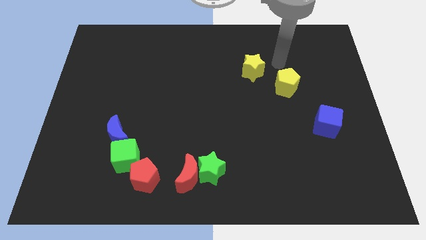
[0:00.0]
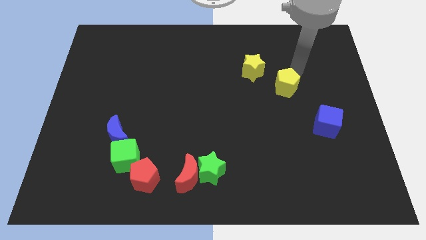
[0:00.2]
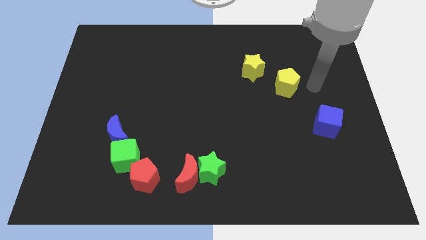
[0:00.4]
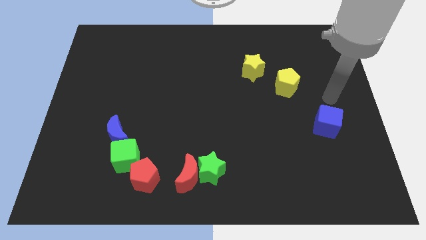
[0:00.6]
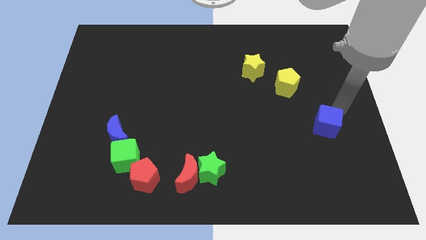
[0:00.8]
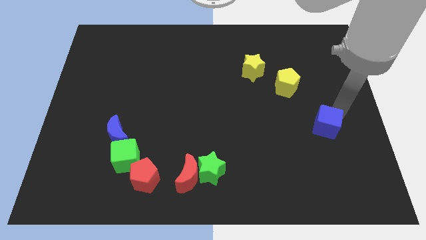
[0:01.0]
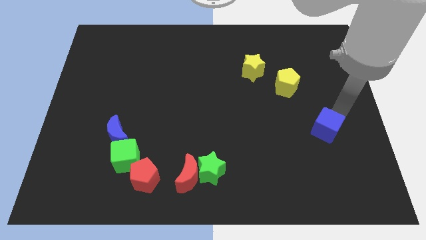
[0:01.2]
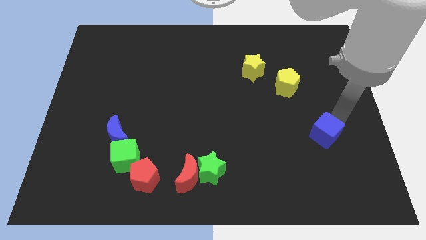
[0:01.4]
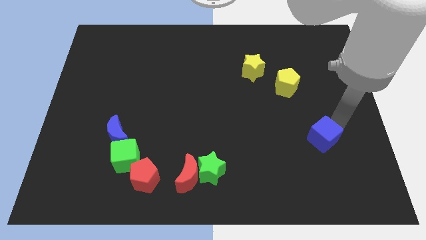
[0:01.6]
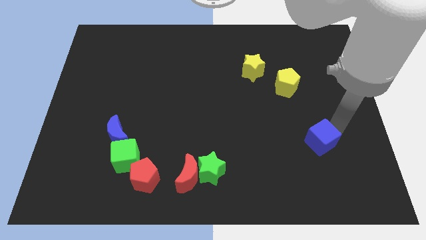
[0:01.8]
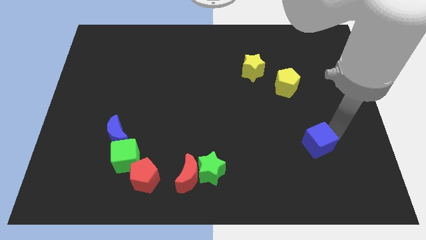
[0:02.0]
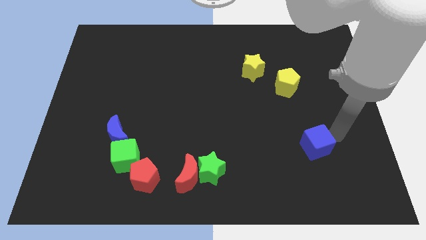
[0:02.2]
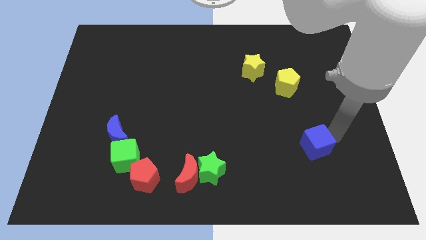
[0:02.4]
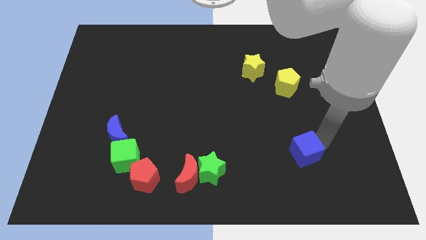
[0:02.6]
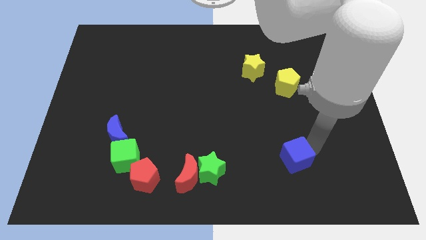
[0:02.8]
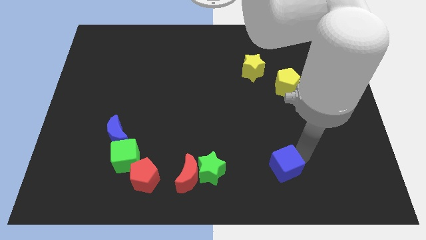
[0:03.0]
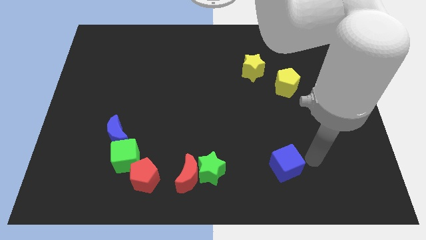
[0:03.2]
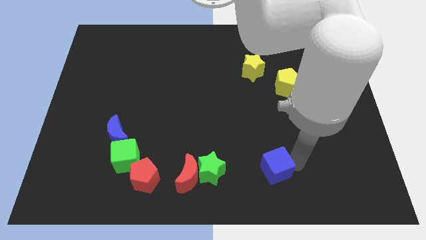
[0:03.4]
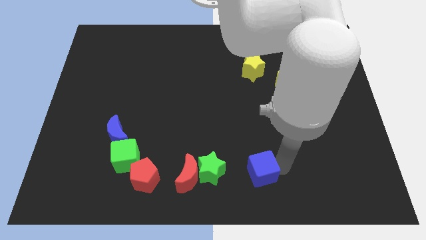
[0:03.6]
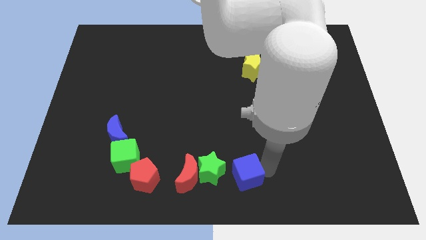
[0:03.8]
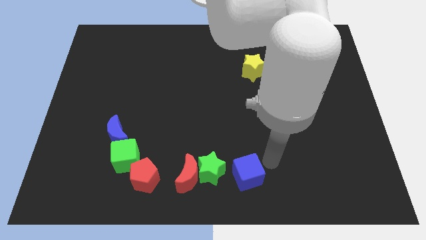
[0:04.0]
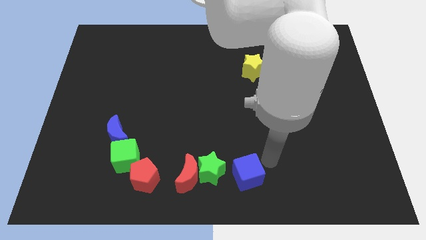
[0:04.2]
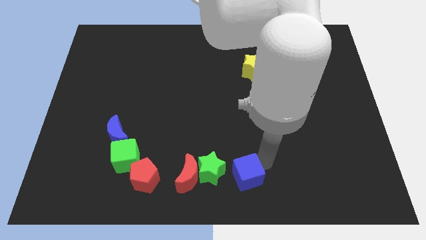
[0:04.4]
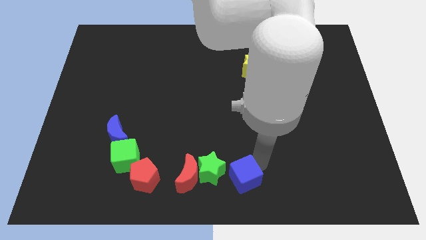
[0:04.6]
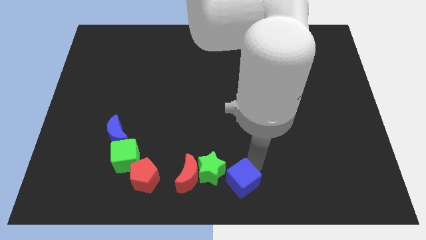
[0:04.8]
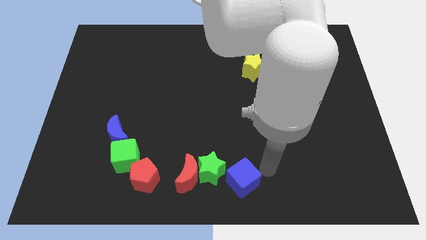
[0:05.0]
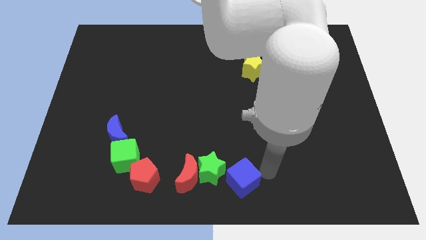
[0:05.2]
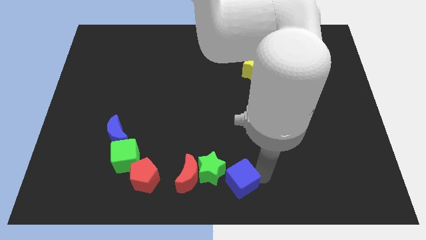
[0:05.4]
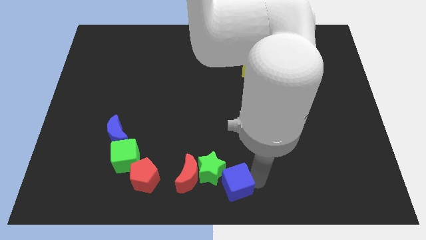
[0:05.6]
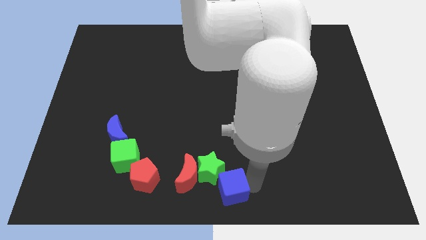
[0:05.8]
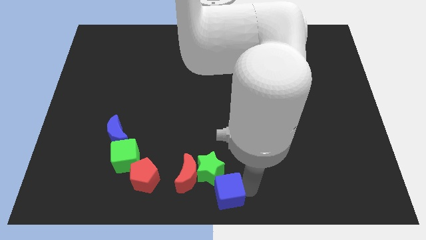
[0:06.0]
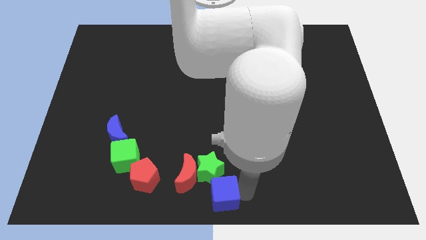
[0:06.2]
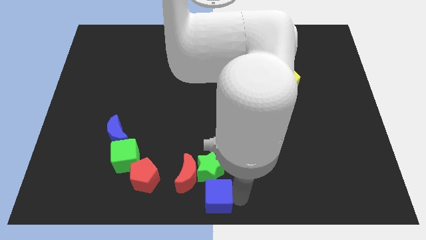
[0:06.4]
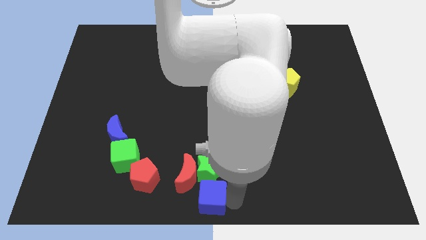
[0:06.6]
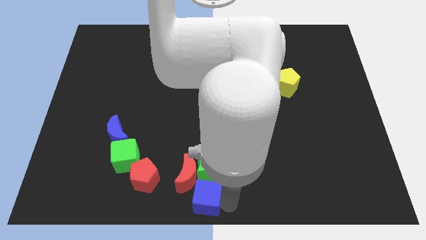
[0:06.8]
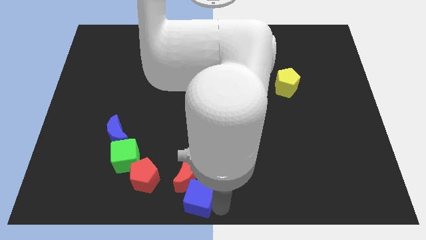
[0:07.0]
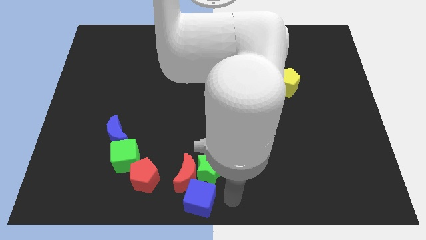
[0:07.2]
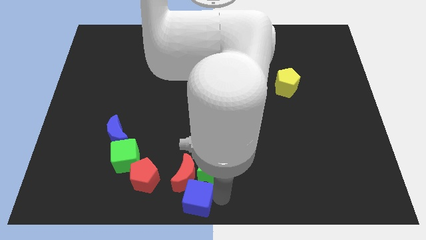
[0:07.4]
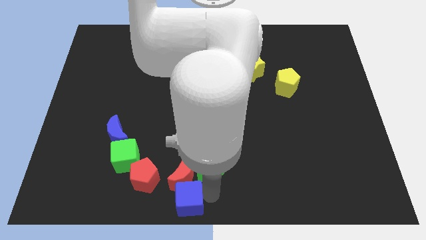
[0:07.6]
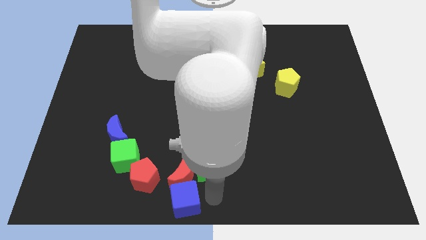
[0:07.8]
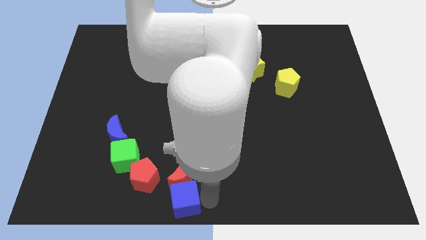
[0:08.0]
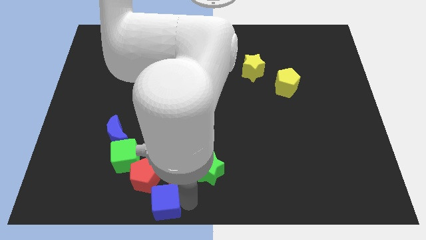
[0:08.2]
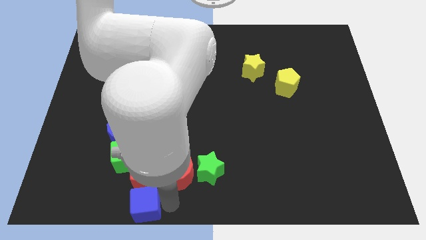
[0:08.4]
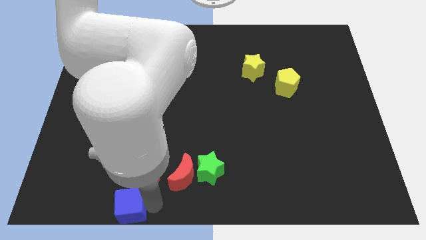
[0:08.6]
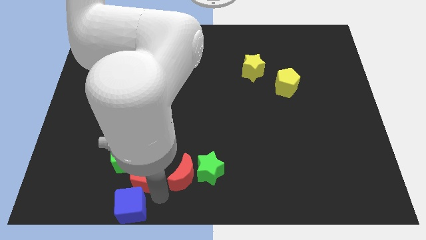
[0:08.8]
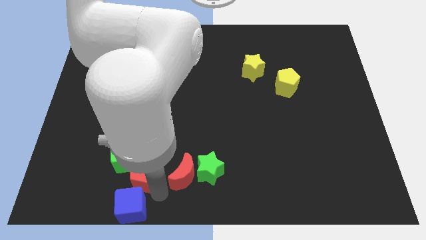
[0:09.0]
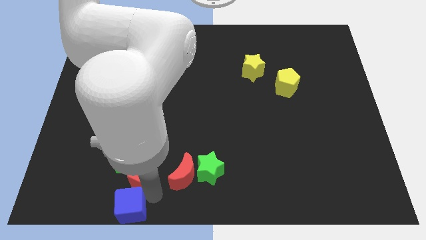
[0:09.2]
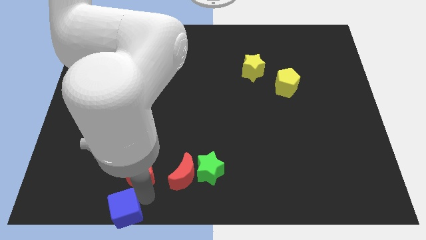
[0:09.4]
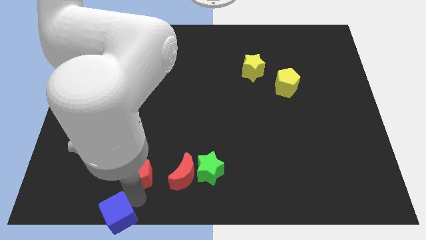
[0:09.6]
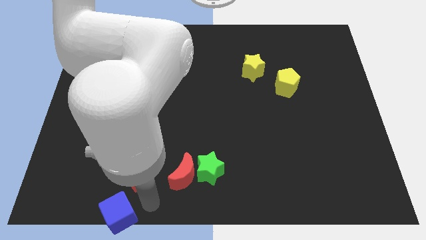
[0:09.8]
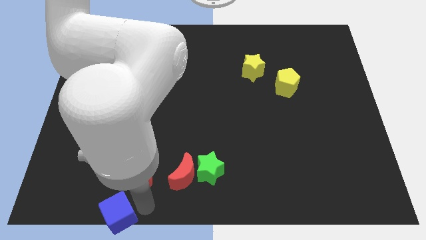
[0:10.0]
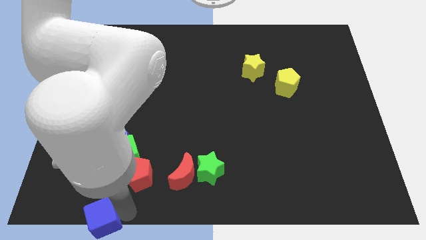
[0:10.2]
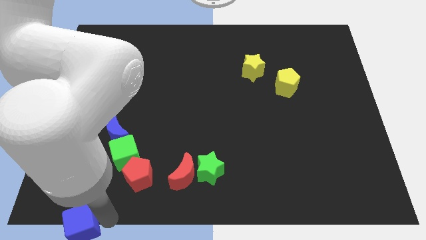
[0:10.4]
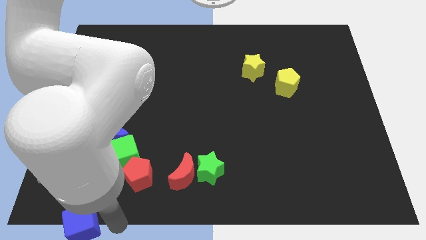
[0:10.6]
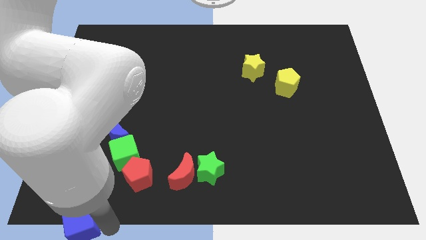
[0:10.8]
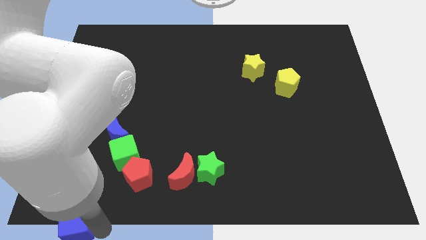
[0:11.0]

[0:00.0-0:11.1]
move the blue cube to the bottom left corner

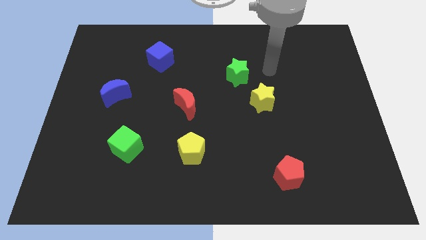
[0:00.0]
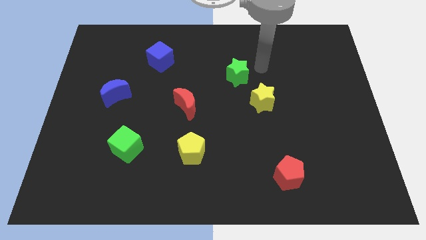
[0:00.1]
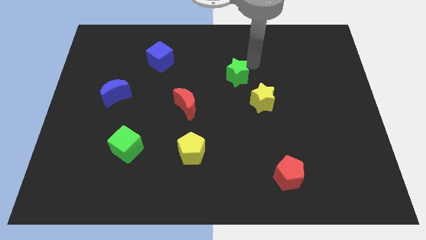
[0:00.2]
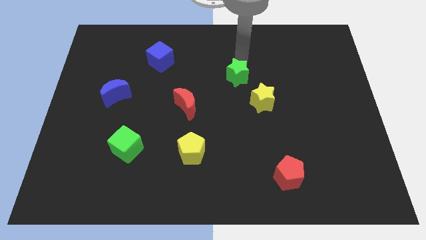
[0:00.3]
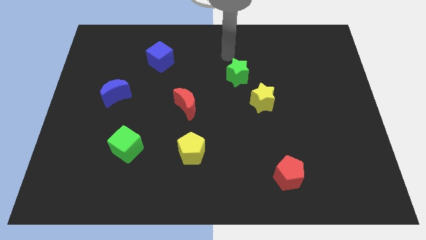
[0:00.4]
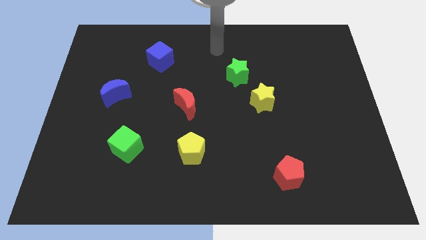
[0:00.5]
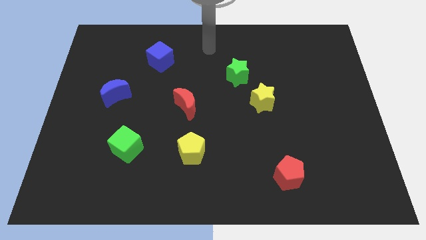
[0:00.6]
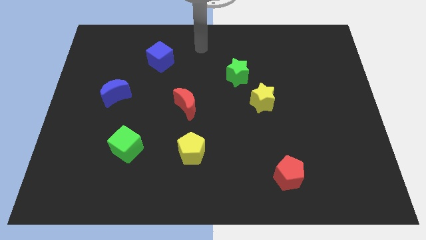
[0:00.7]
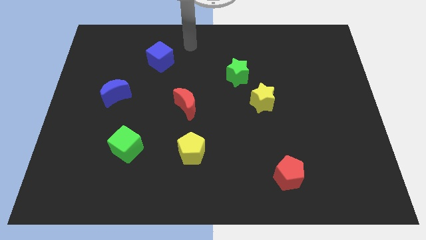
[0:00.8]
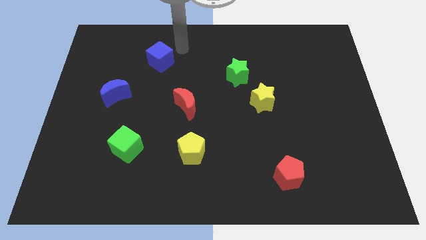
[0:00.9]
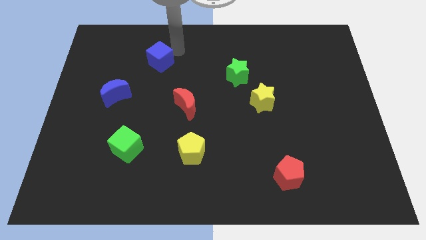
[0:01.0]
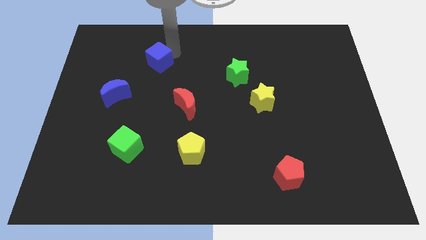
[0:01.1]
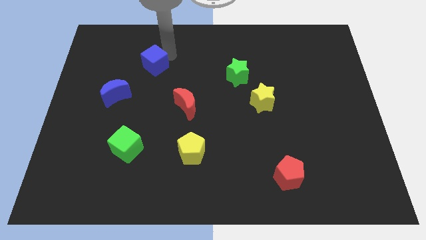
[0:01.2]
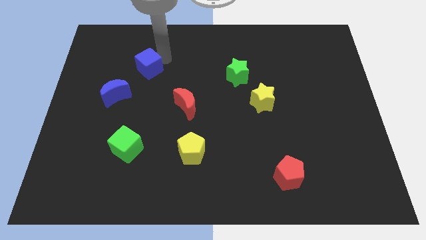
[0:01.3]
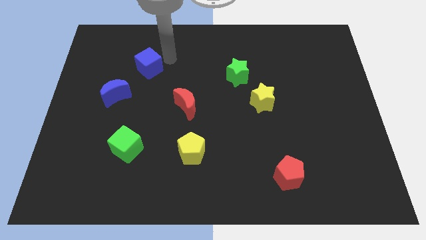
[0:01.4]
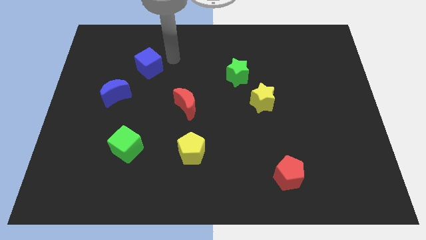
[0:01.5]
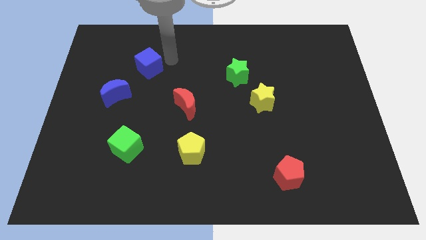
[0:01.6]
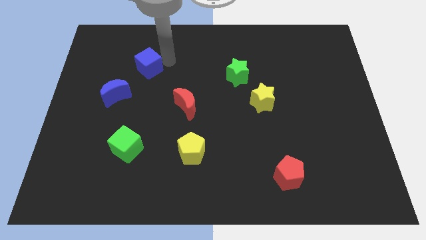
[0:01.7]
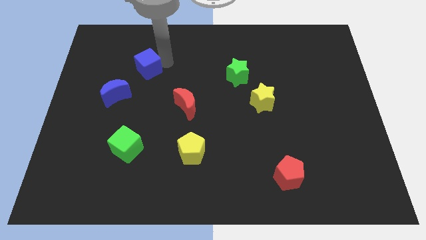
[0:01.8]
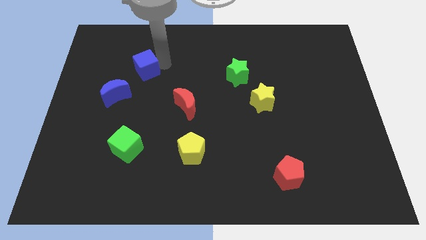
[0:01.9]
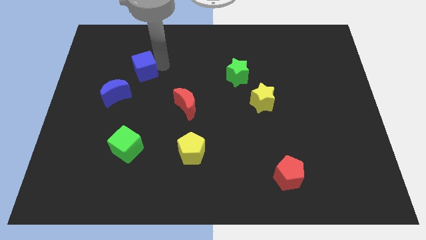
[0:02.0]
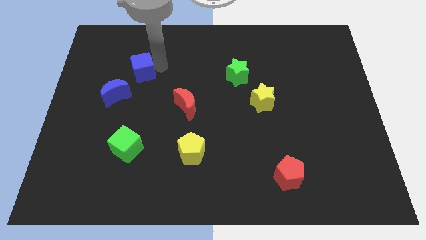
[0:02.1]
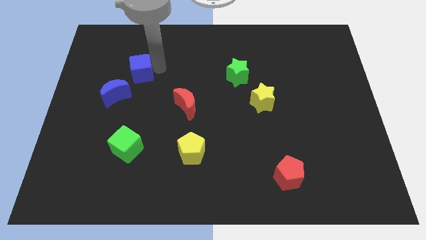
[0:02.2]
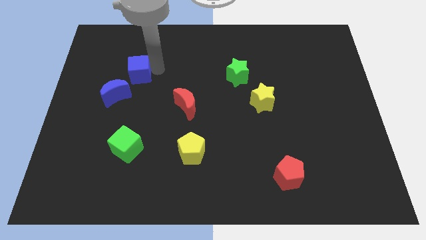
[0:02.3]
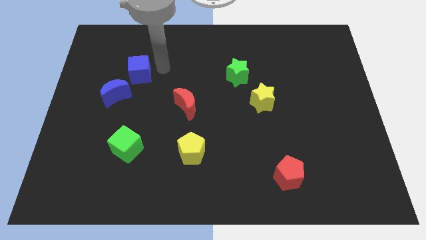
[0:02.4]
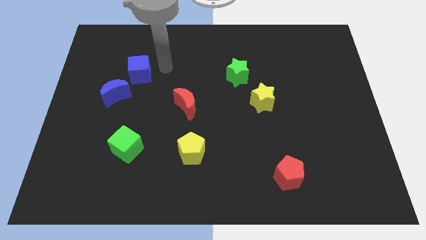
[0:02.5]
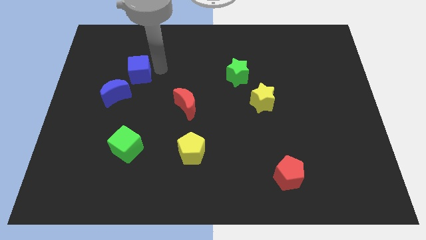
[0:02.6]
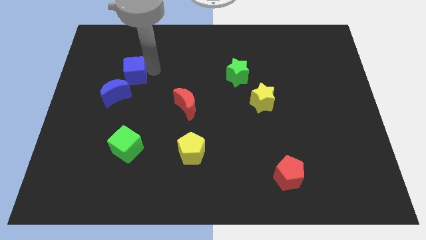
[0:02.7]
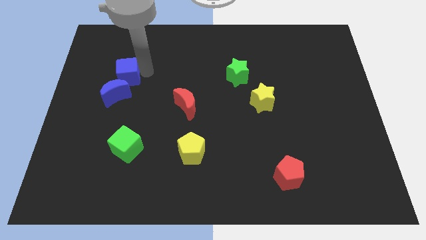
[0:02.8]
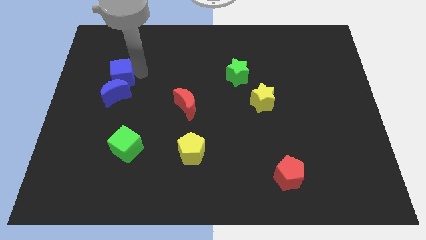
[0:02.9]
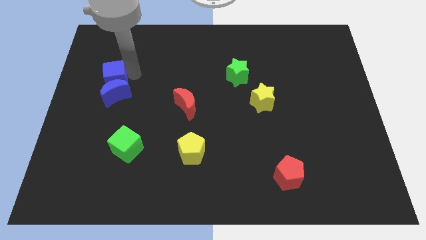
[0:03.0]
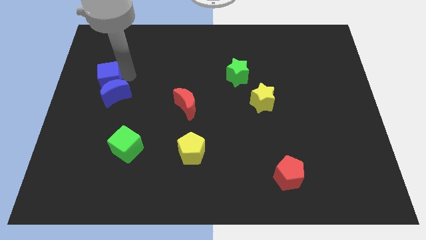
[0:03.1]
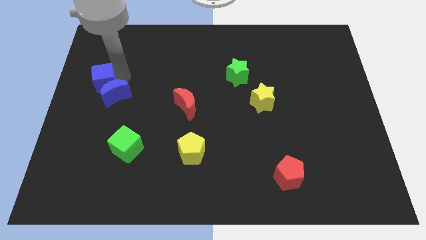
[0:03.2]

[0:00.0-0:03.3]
slide the blue cube to the center left
